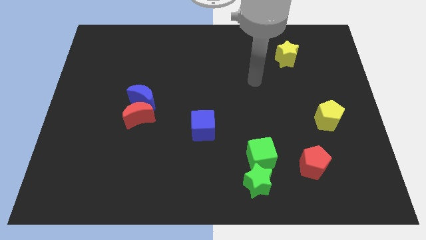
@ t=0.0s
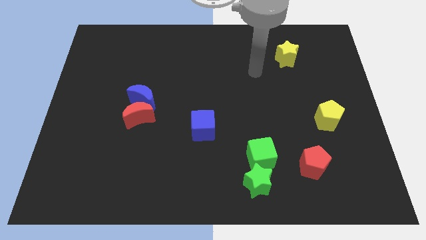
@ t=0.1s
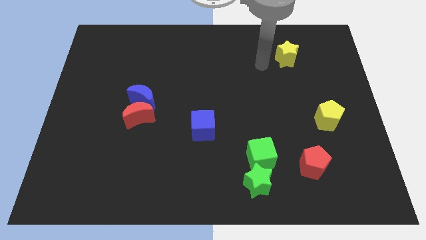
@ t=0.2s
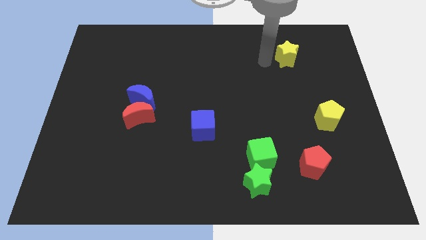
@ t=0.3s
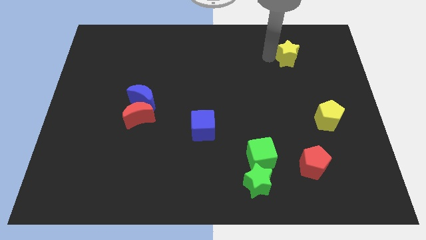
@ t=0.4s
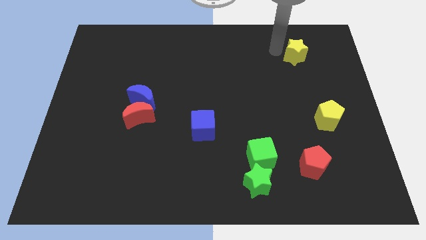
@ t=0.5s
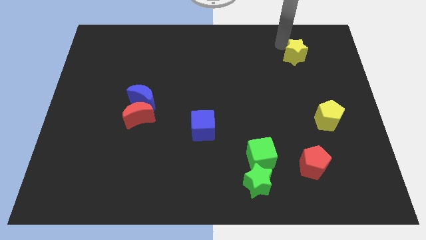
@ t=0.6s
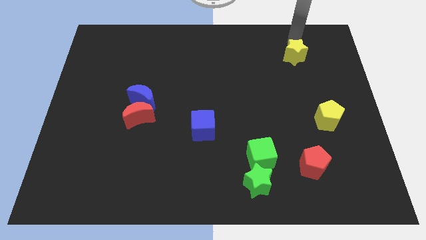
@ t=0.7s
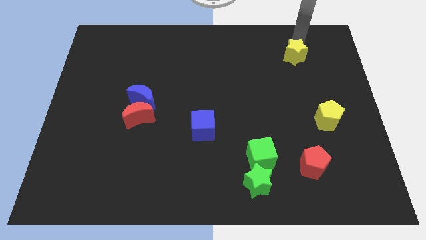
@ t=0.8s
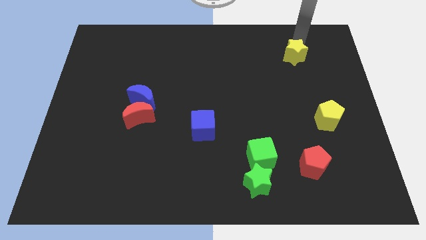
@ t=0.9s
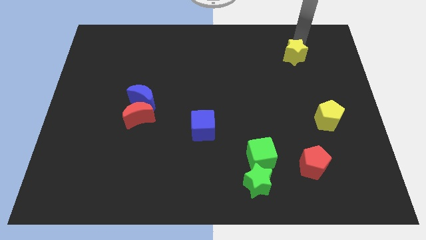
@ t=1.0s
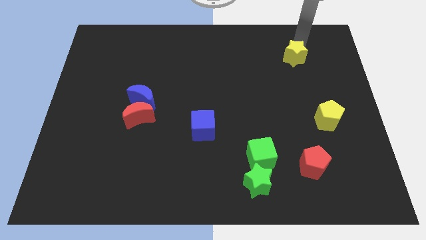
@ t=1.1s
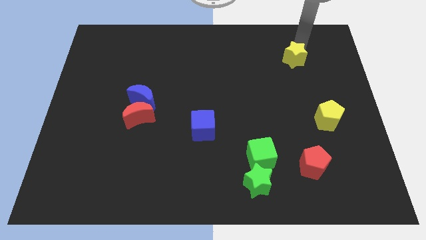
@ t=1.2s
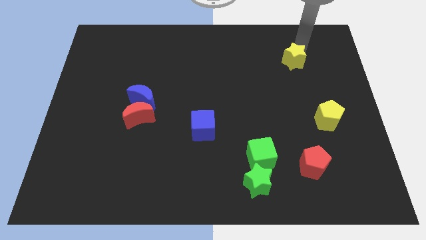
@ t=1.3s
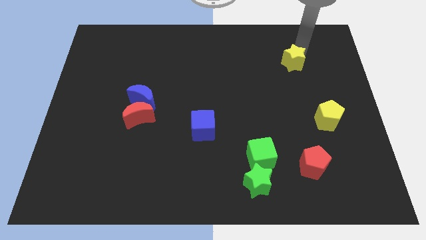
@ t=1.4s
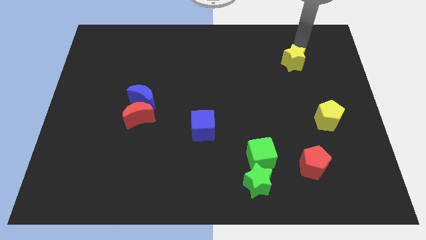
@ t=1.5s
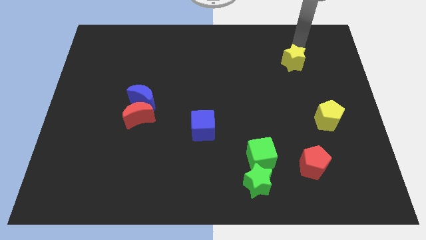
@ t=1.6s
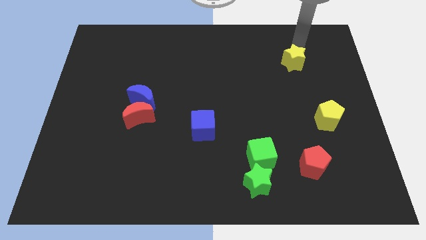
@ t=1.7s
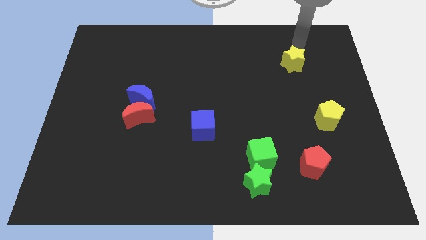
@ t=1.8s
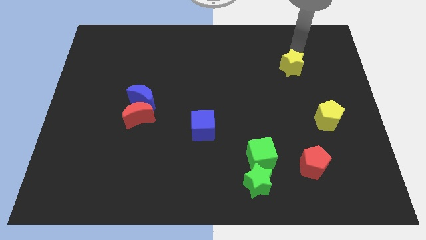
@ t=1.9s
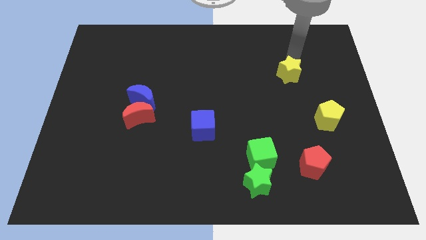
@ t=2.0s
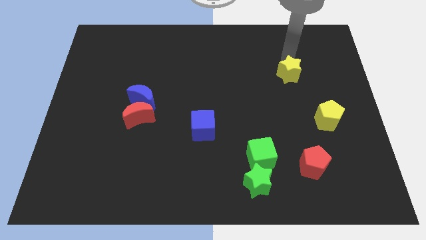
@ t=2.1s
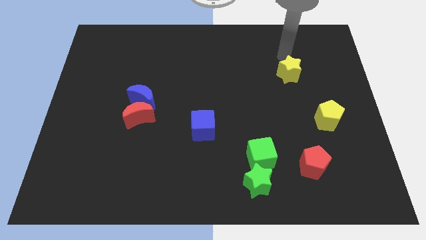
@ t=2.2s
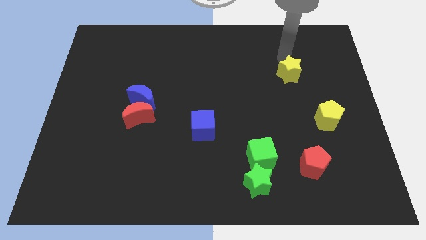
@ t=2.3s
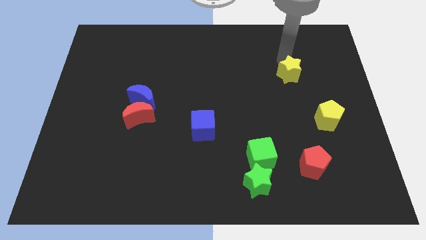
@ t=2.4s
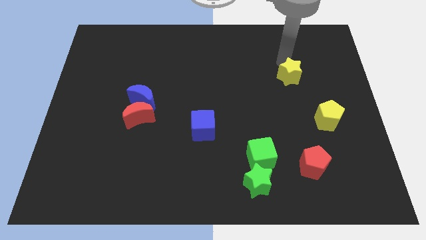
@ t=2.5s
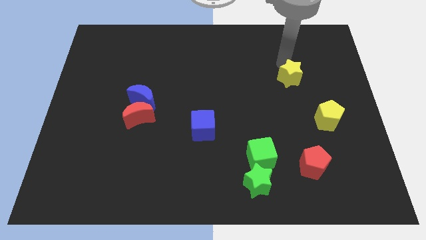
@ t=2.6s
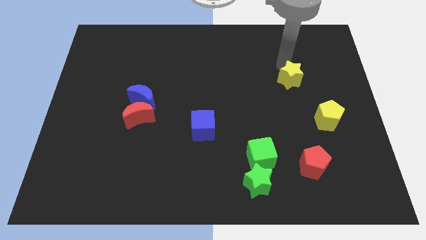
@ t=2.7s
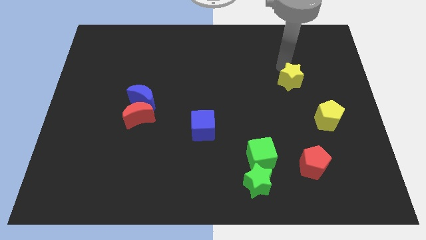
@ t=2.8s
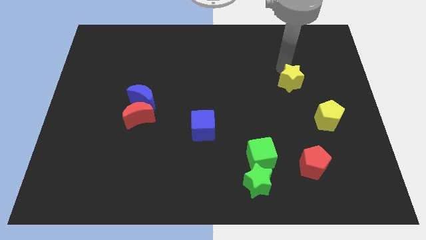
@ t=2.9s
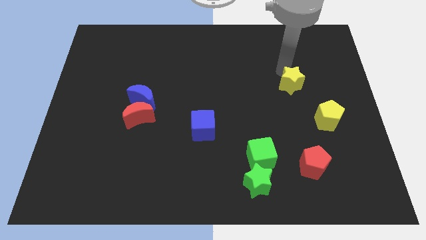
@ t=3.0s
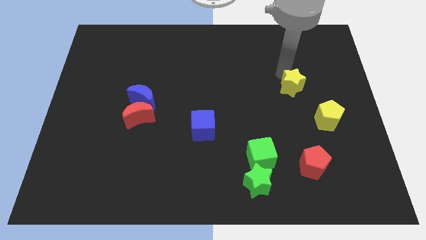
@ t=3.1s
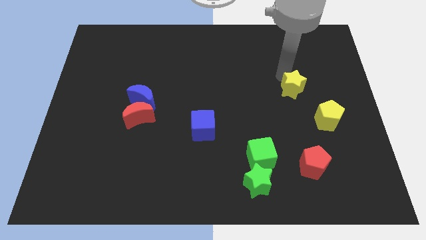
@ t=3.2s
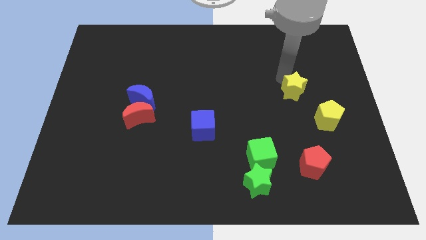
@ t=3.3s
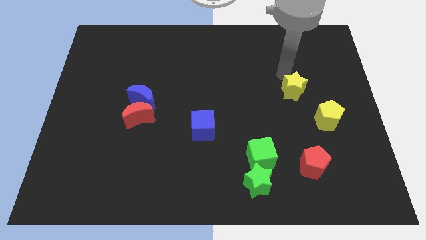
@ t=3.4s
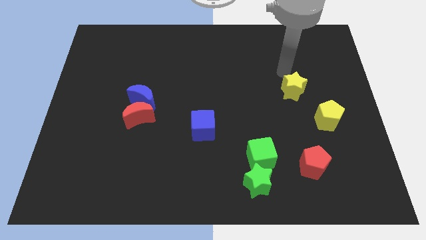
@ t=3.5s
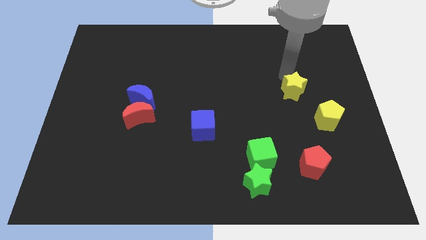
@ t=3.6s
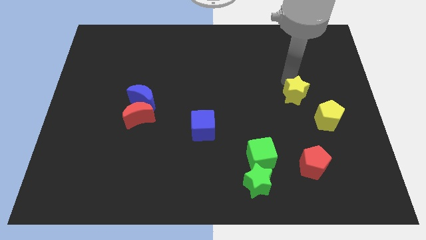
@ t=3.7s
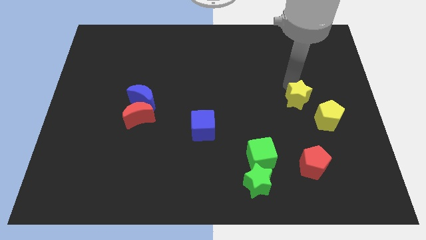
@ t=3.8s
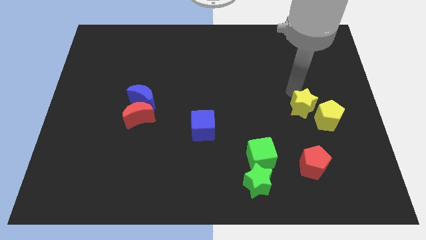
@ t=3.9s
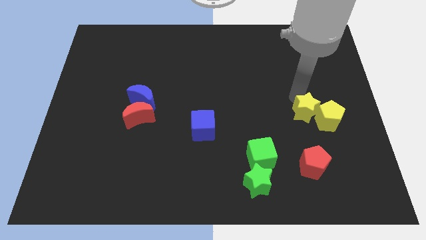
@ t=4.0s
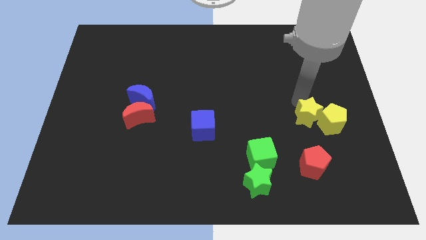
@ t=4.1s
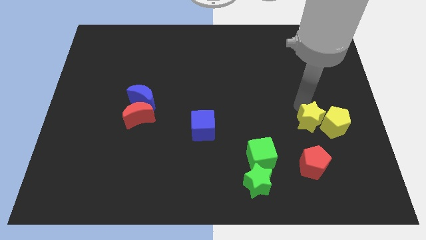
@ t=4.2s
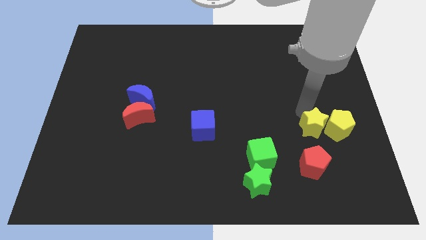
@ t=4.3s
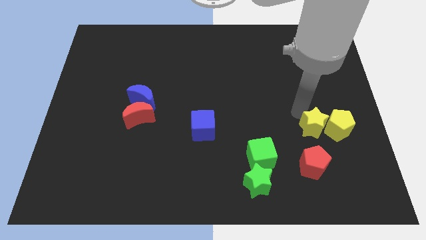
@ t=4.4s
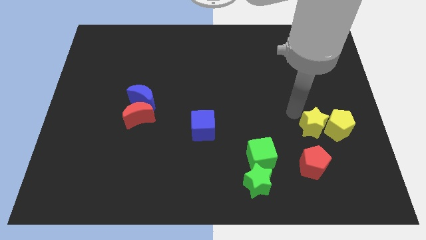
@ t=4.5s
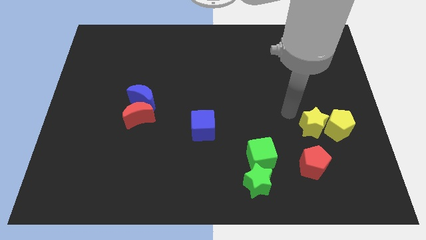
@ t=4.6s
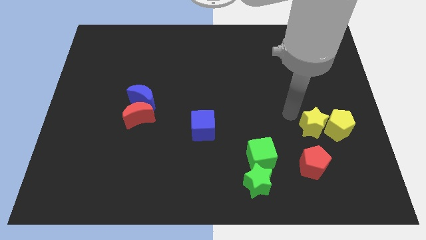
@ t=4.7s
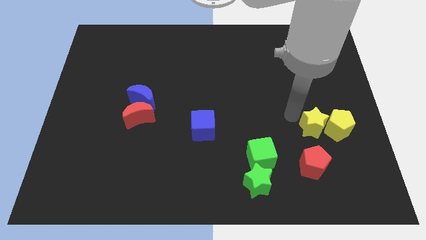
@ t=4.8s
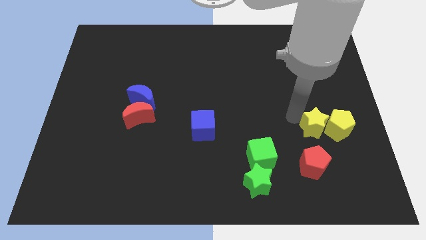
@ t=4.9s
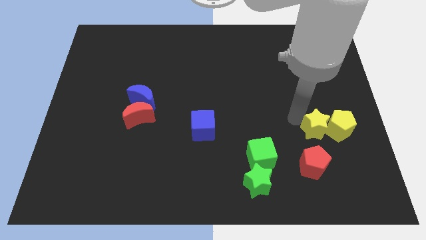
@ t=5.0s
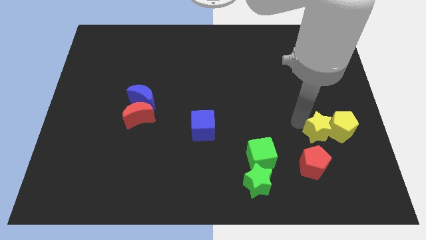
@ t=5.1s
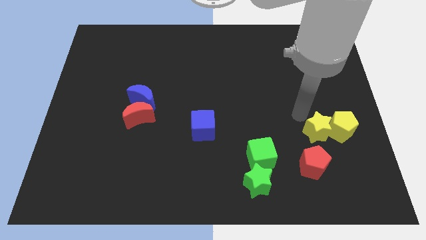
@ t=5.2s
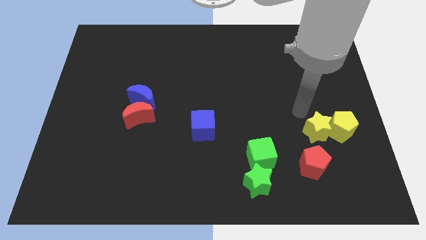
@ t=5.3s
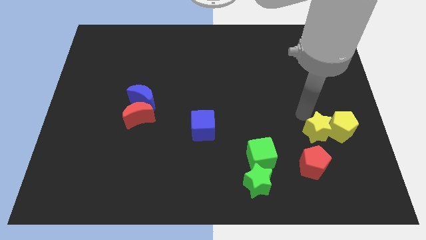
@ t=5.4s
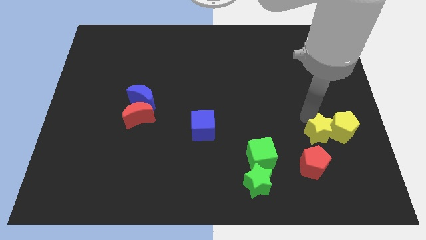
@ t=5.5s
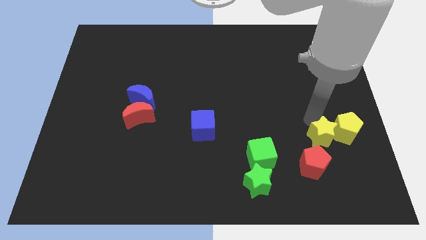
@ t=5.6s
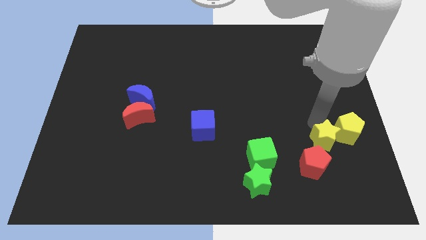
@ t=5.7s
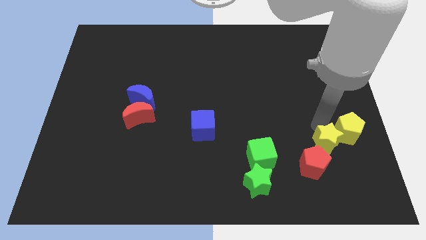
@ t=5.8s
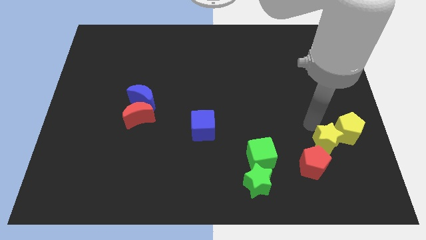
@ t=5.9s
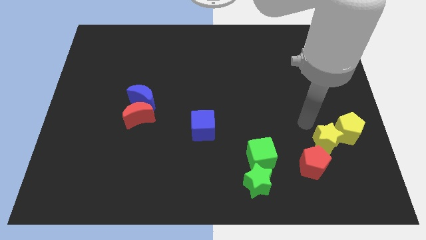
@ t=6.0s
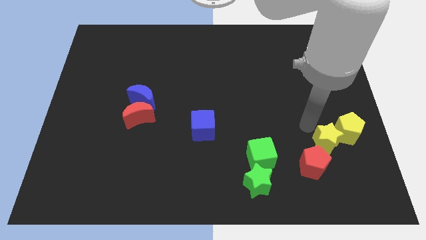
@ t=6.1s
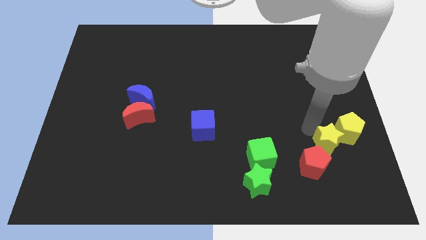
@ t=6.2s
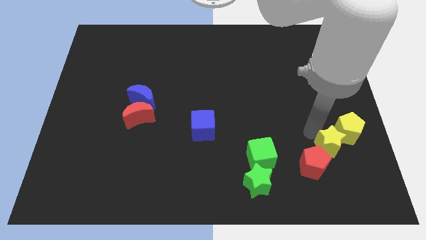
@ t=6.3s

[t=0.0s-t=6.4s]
slide the yellow star to the bottom of the yellow pentagon

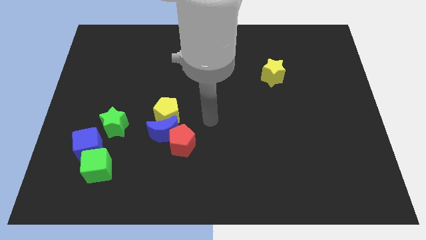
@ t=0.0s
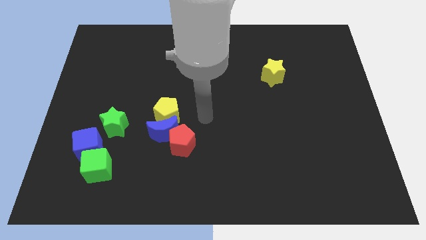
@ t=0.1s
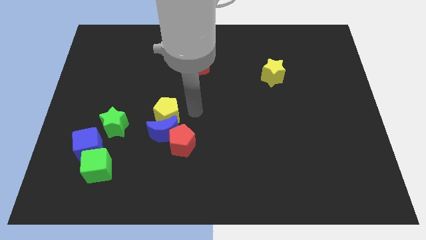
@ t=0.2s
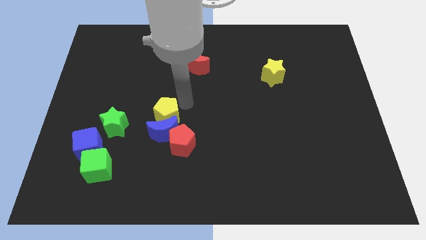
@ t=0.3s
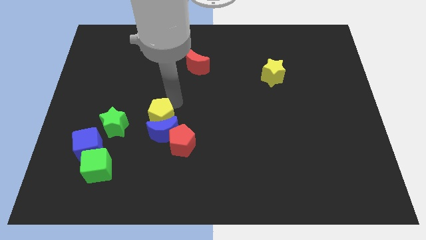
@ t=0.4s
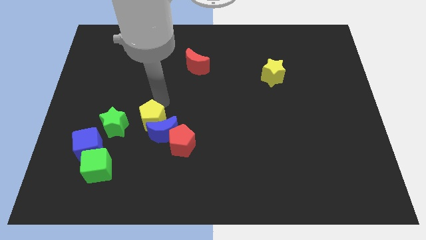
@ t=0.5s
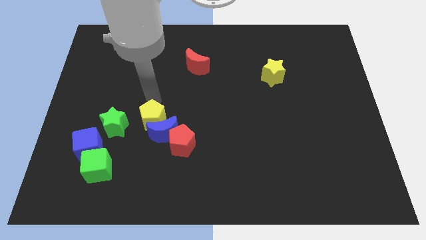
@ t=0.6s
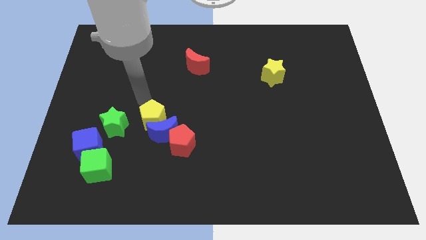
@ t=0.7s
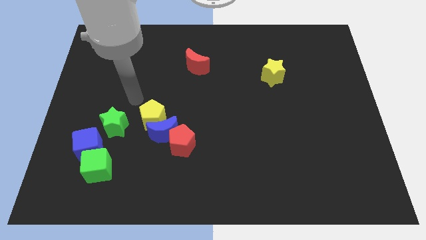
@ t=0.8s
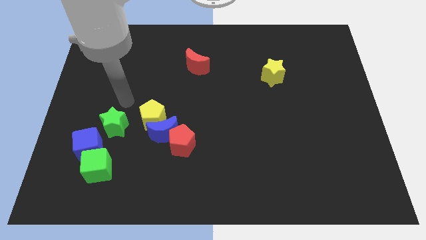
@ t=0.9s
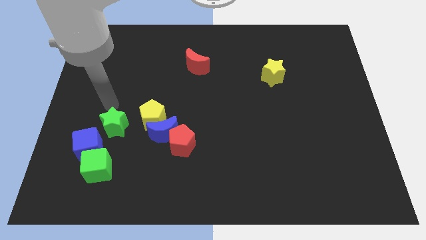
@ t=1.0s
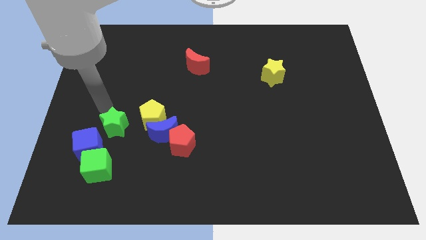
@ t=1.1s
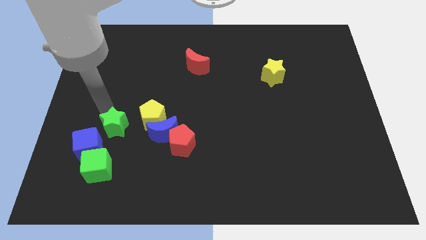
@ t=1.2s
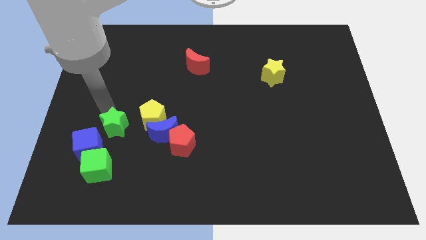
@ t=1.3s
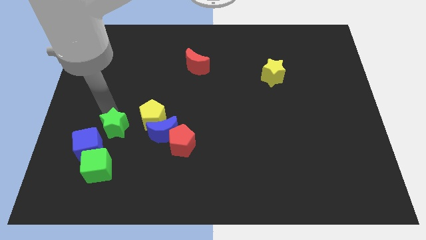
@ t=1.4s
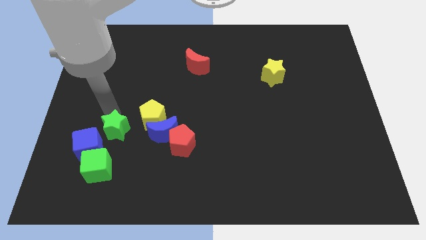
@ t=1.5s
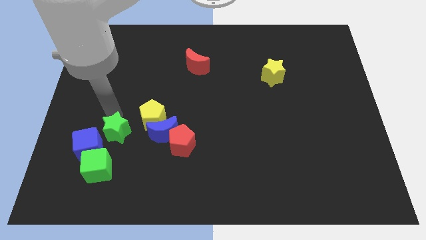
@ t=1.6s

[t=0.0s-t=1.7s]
push the green star diagonally up and to the right of the green cube

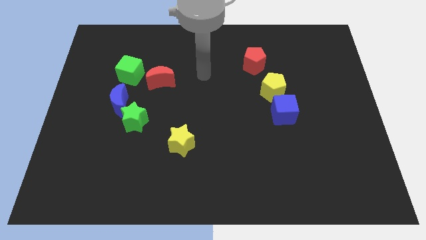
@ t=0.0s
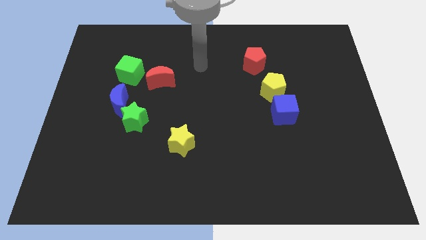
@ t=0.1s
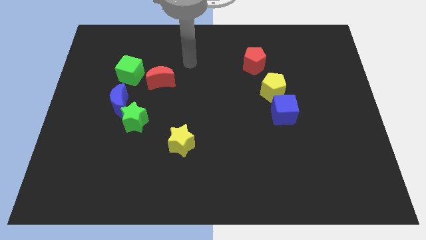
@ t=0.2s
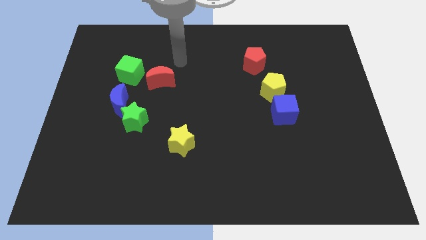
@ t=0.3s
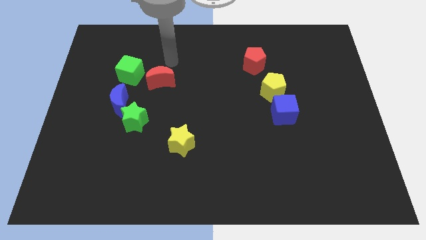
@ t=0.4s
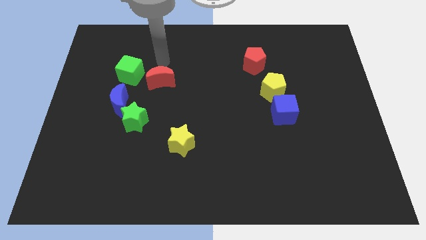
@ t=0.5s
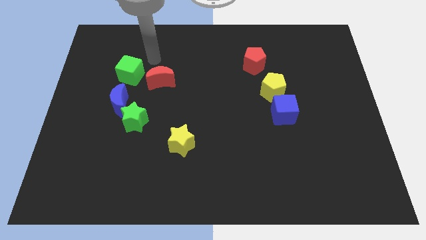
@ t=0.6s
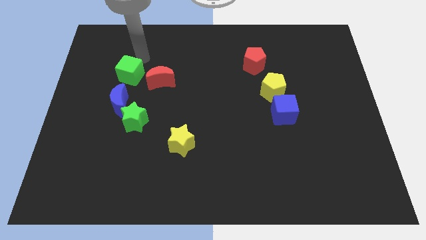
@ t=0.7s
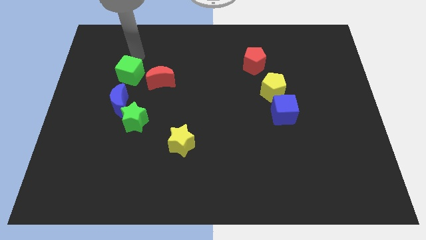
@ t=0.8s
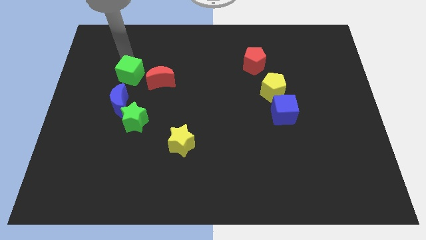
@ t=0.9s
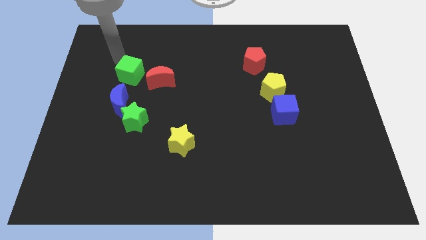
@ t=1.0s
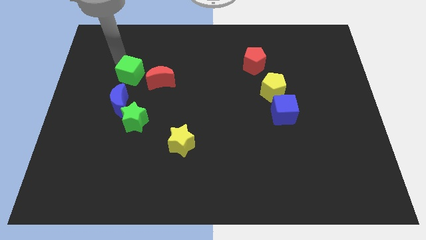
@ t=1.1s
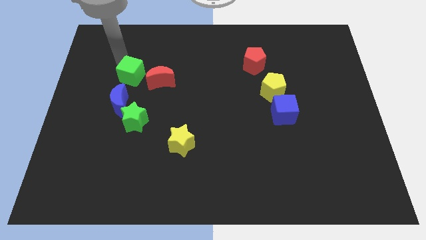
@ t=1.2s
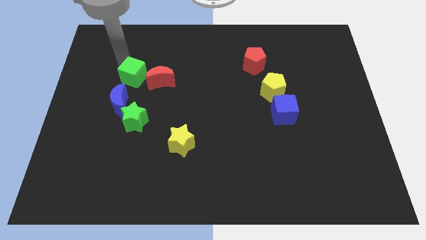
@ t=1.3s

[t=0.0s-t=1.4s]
slide the green cube to the top right side of the blue moon
